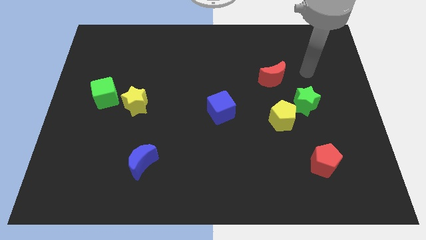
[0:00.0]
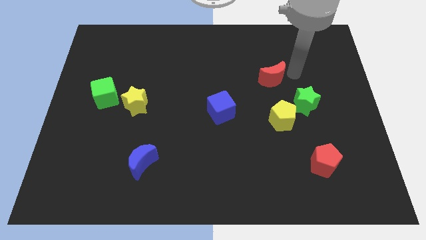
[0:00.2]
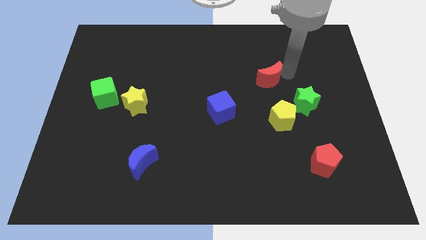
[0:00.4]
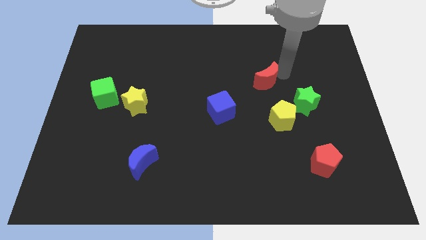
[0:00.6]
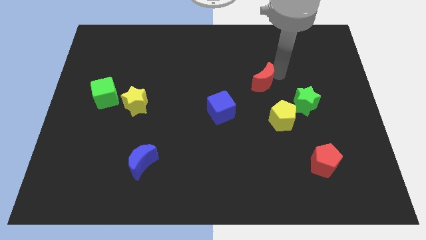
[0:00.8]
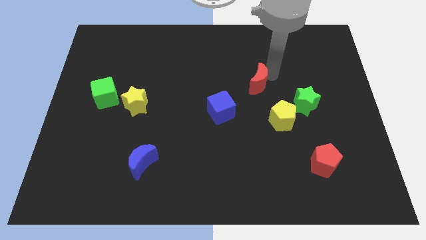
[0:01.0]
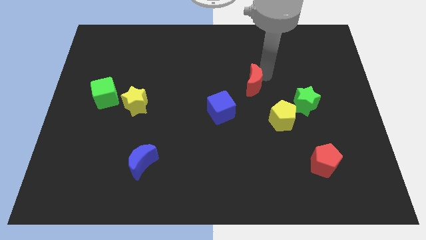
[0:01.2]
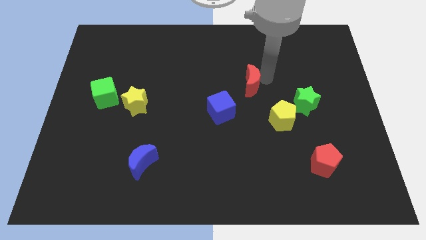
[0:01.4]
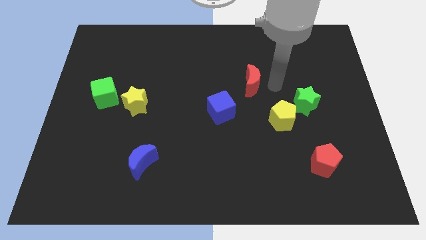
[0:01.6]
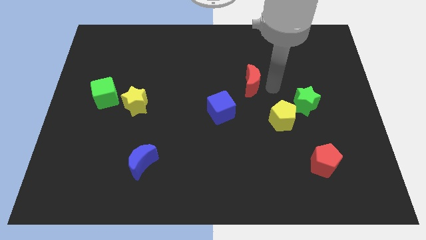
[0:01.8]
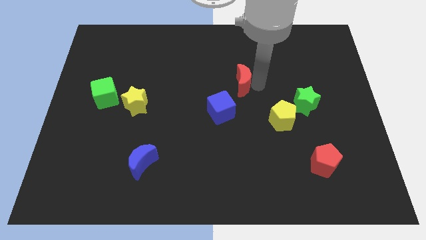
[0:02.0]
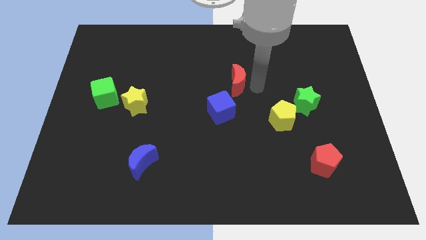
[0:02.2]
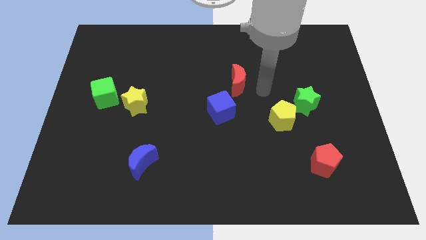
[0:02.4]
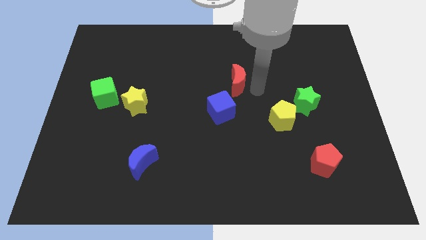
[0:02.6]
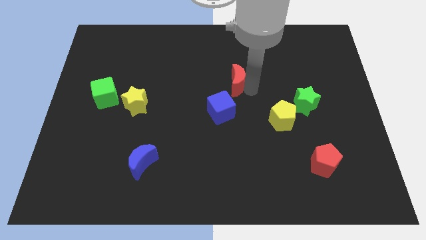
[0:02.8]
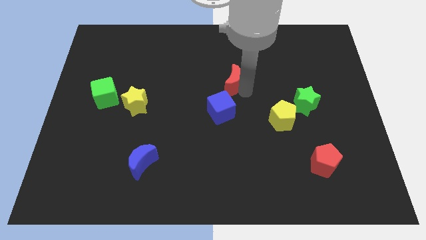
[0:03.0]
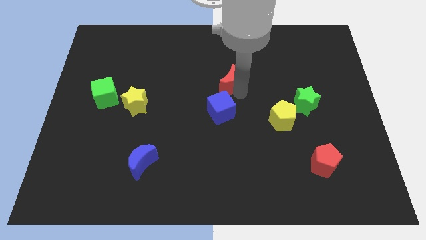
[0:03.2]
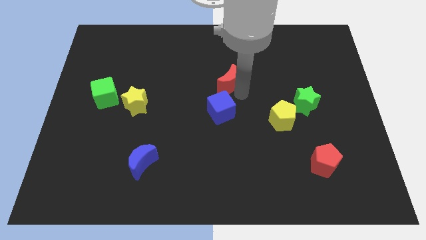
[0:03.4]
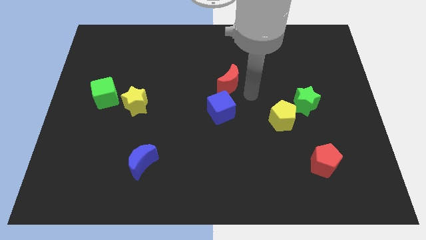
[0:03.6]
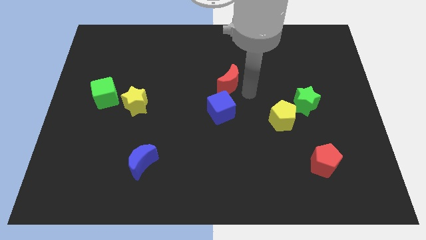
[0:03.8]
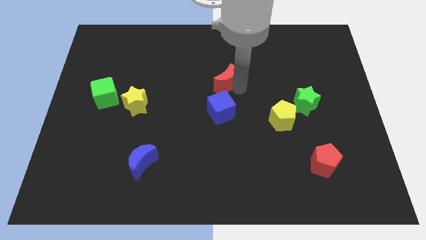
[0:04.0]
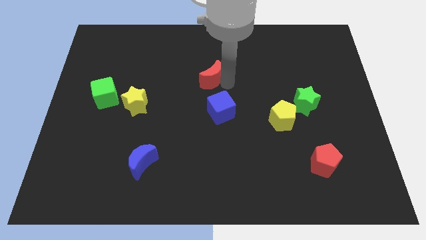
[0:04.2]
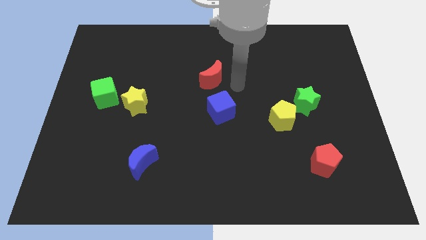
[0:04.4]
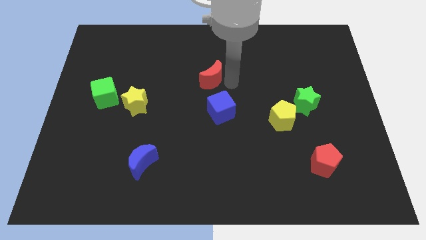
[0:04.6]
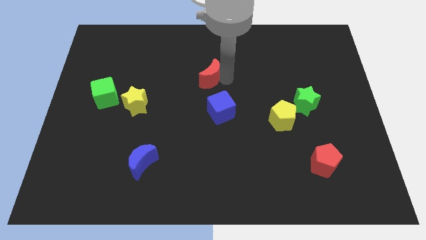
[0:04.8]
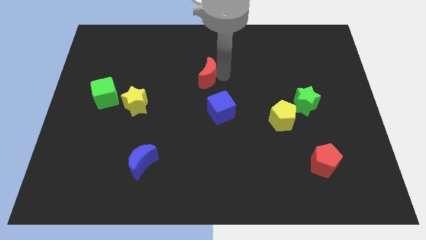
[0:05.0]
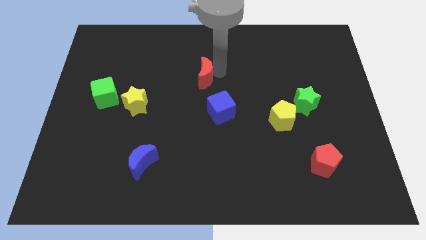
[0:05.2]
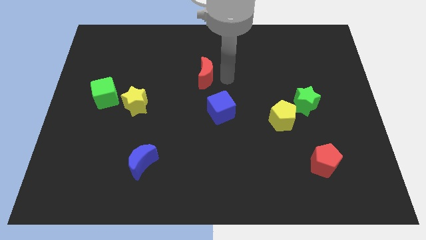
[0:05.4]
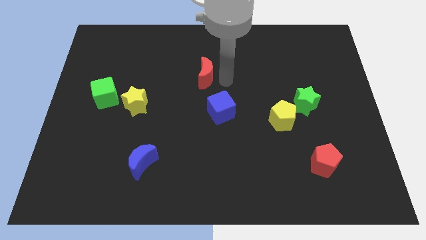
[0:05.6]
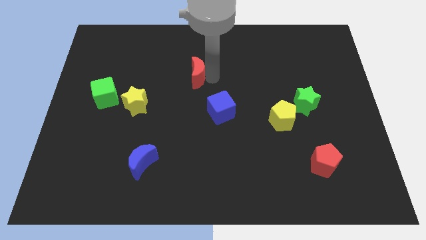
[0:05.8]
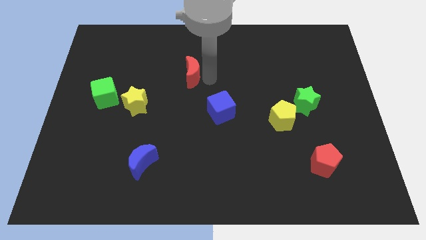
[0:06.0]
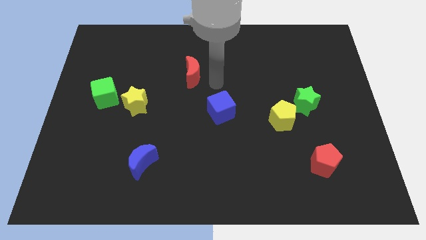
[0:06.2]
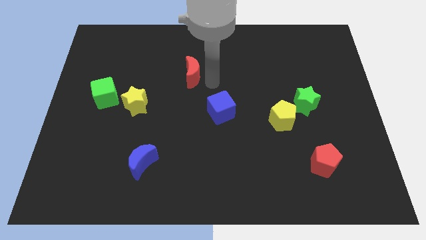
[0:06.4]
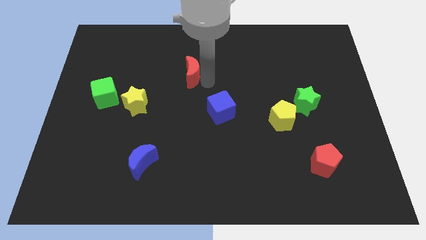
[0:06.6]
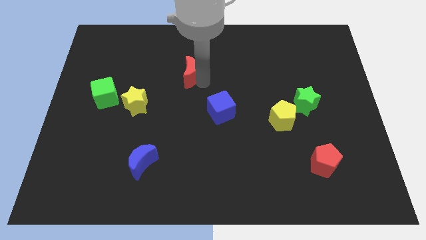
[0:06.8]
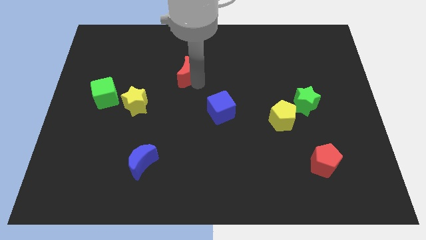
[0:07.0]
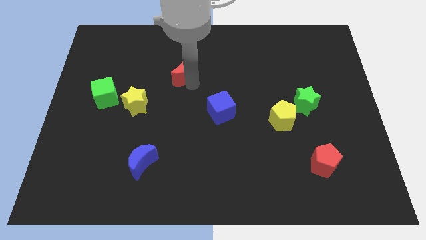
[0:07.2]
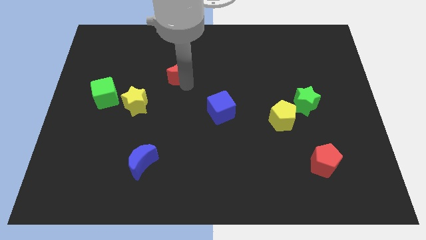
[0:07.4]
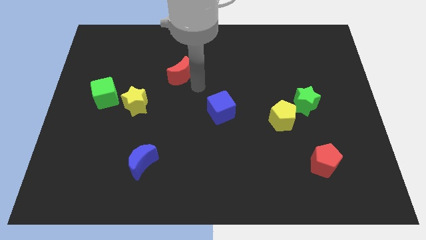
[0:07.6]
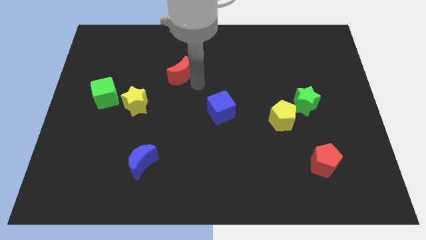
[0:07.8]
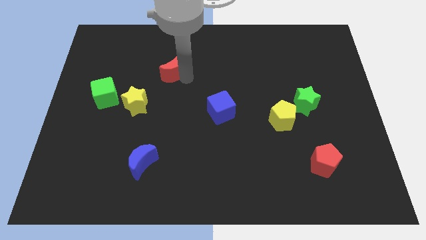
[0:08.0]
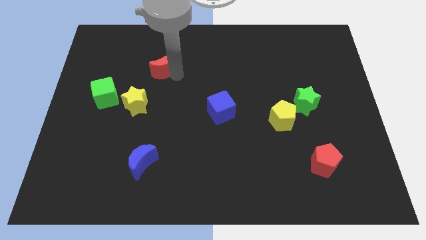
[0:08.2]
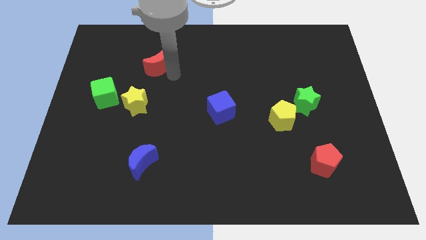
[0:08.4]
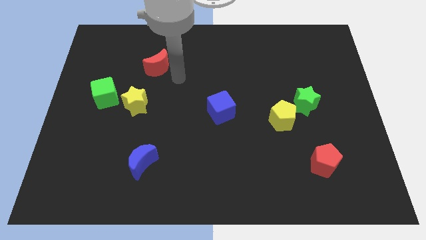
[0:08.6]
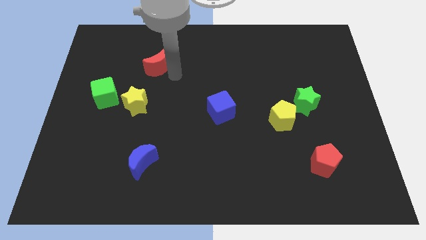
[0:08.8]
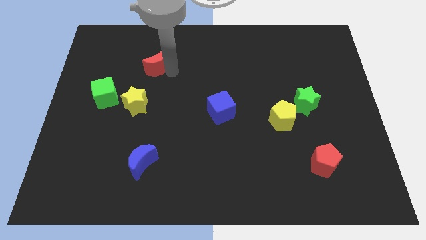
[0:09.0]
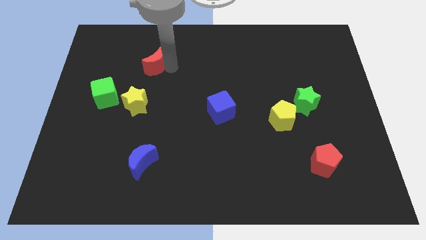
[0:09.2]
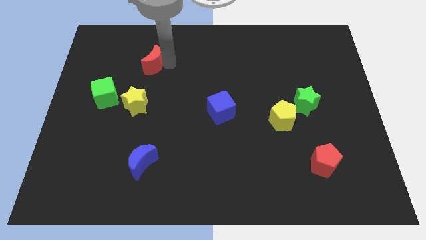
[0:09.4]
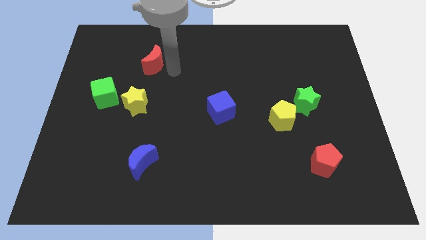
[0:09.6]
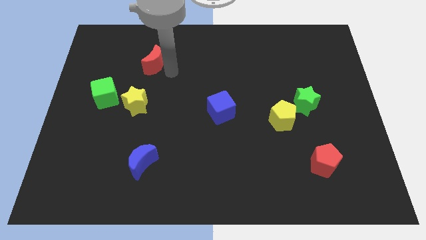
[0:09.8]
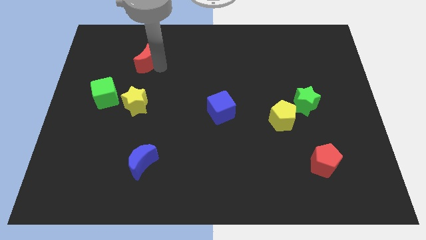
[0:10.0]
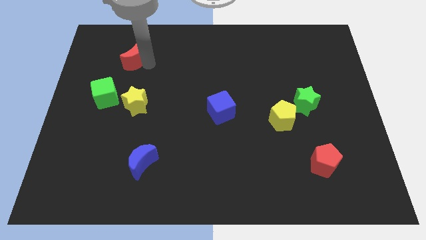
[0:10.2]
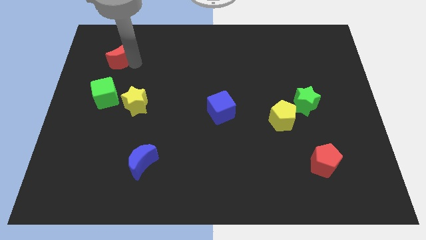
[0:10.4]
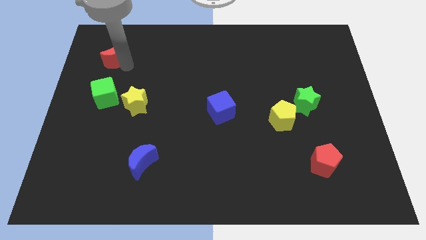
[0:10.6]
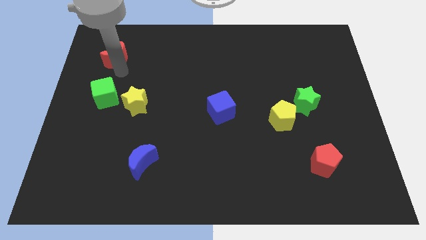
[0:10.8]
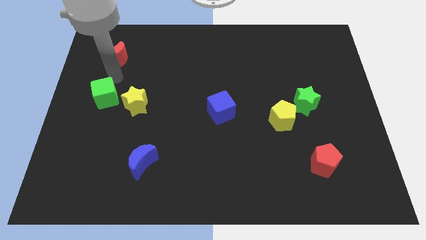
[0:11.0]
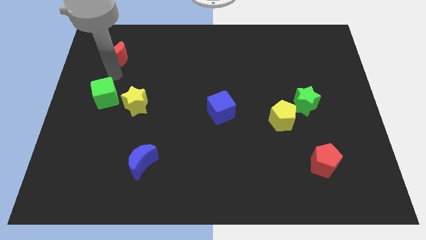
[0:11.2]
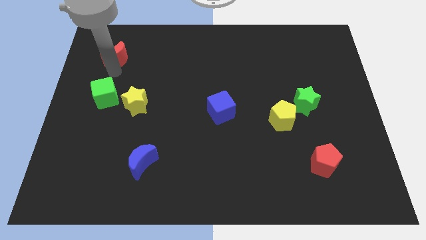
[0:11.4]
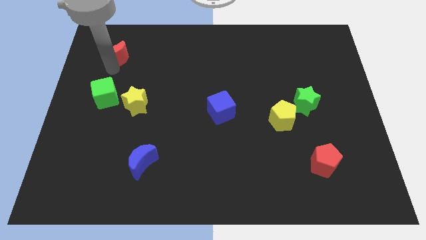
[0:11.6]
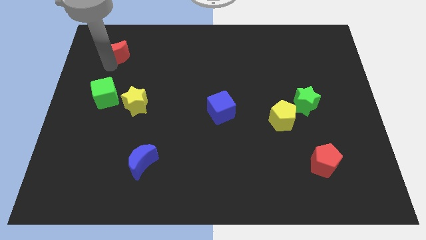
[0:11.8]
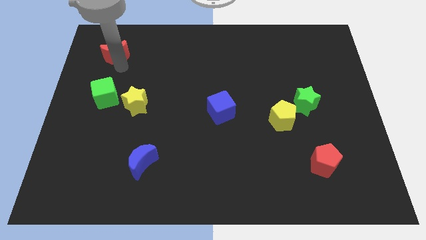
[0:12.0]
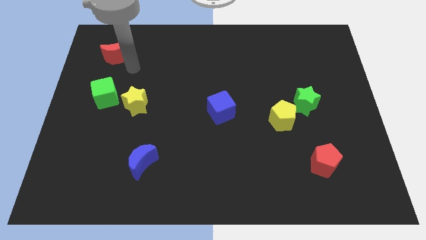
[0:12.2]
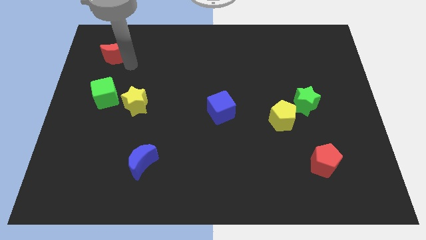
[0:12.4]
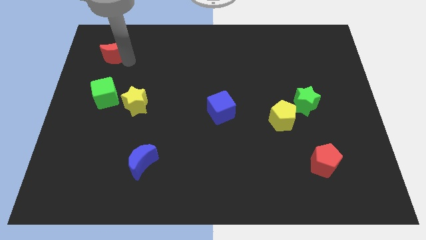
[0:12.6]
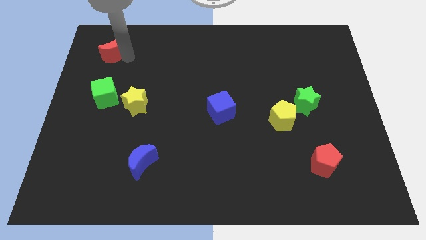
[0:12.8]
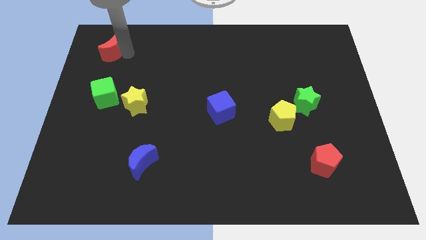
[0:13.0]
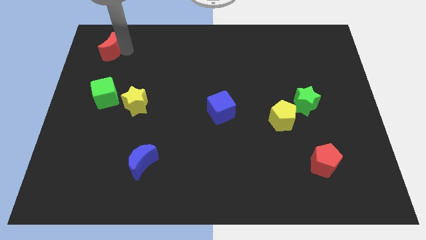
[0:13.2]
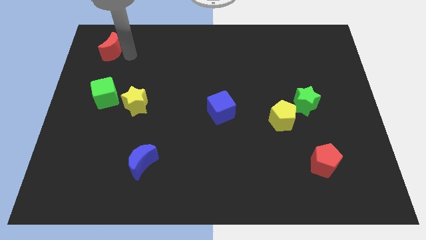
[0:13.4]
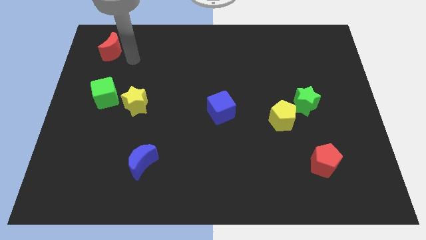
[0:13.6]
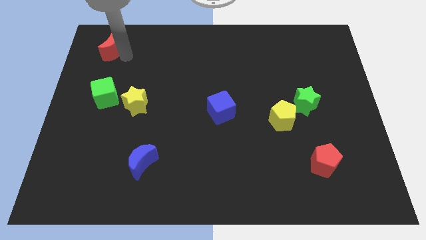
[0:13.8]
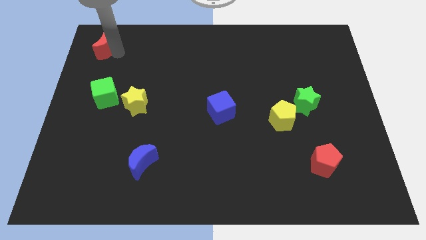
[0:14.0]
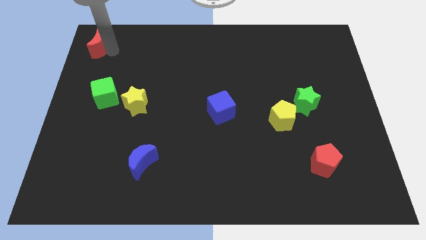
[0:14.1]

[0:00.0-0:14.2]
slide the red moon to the top left of the board
